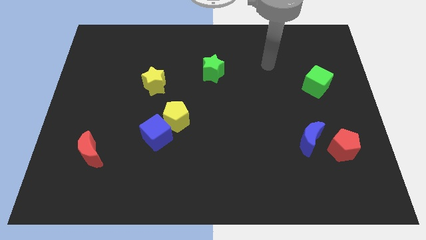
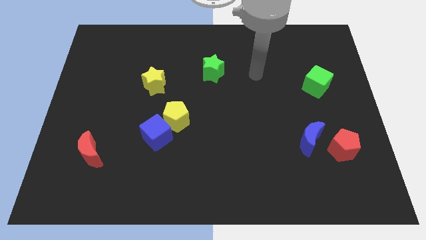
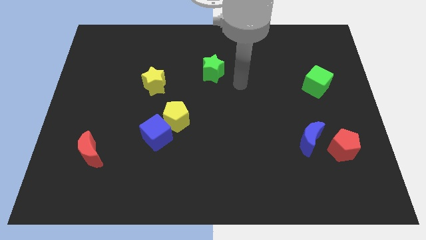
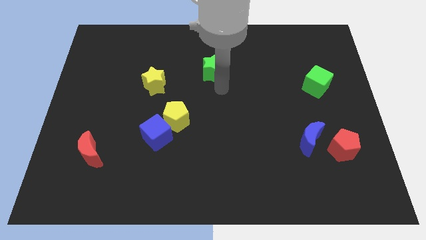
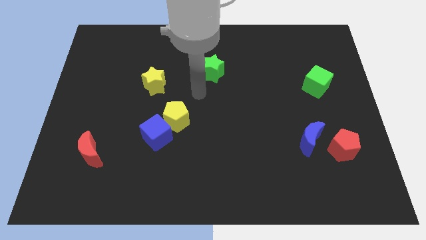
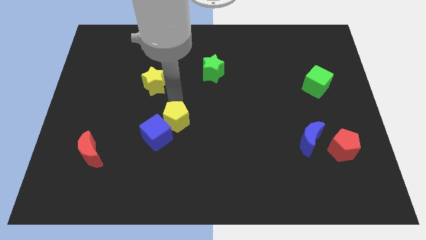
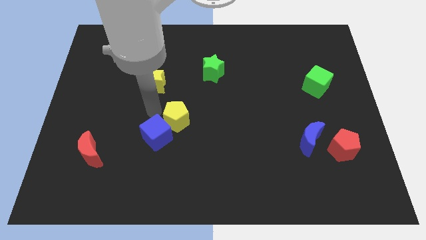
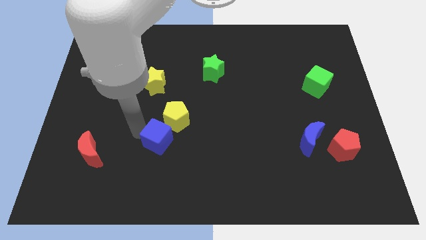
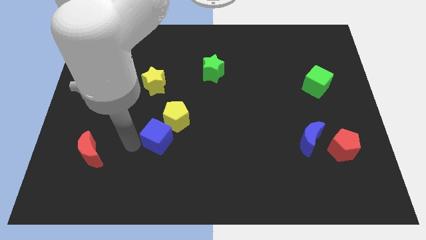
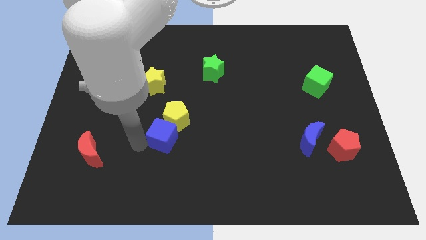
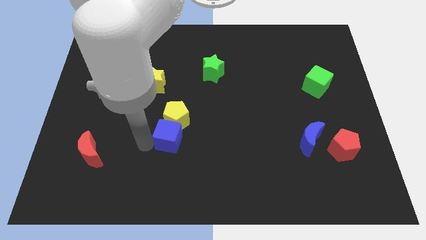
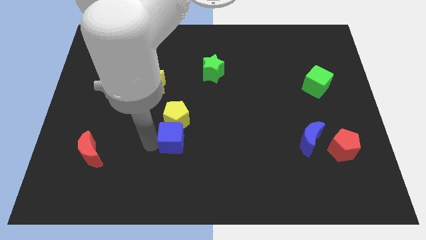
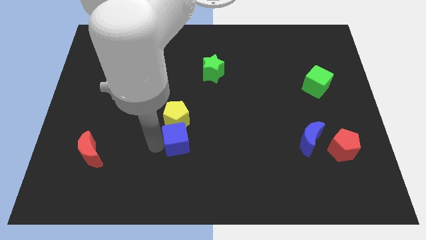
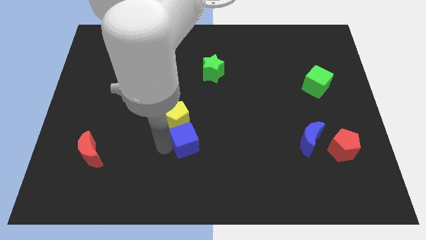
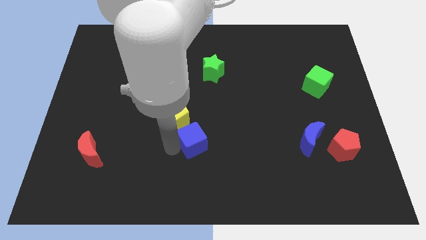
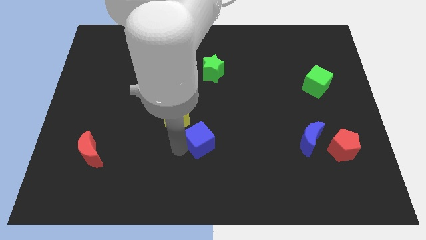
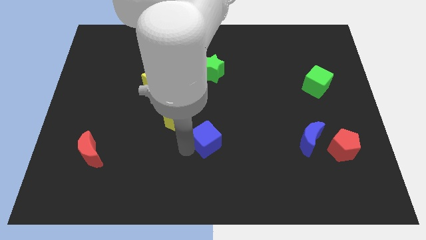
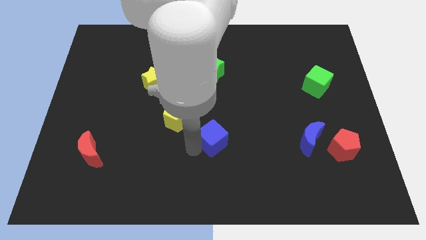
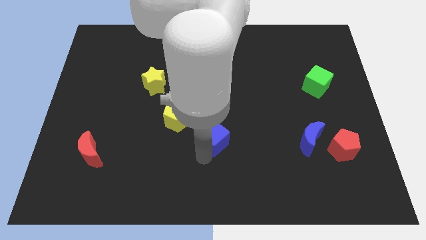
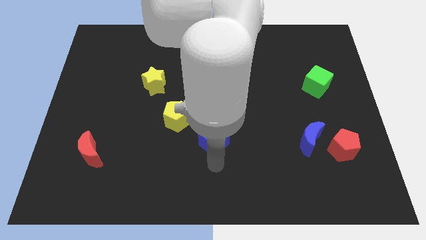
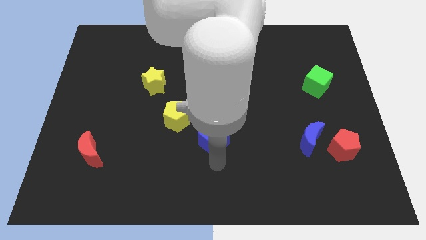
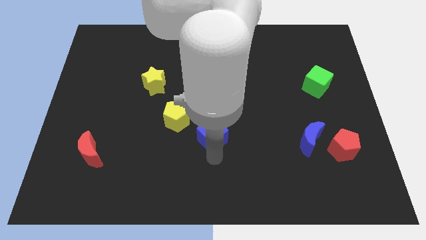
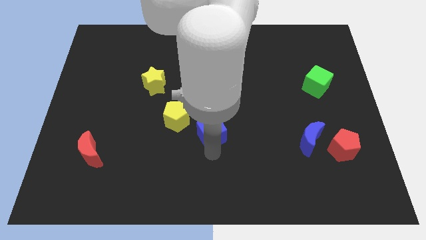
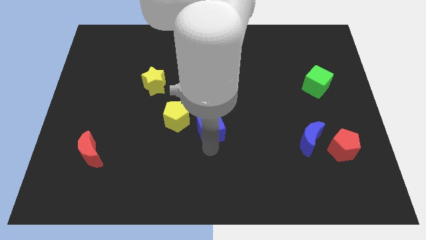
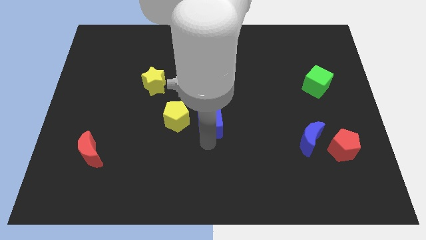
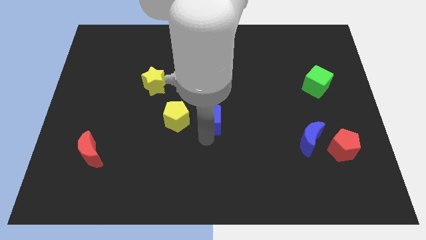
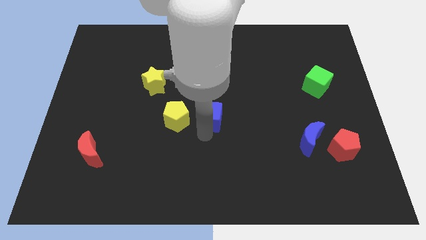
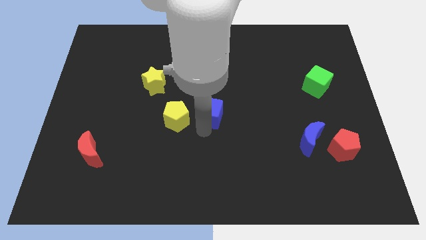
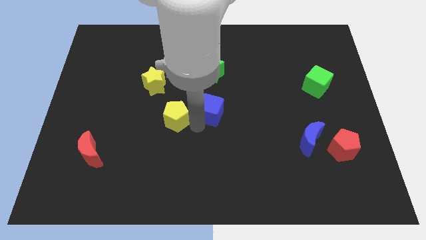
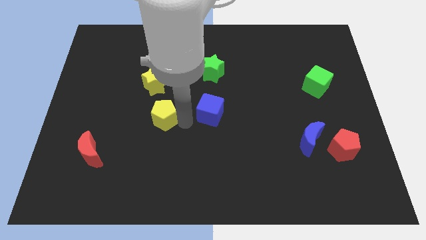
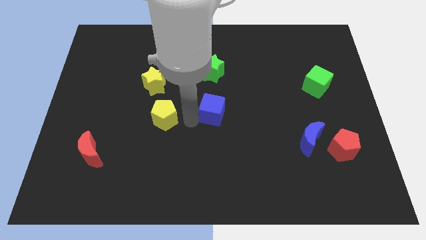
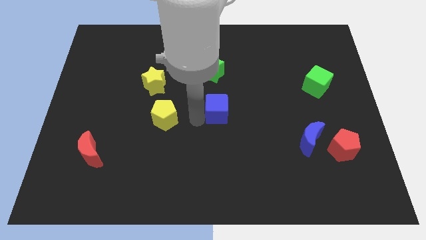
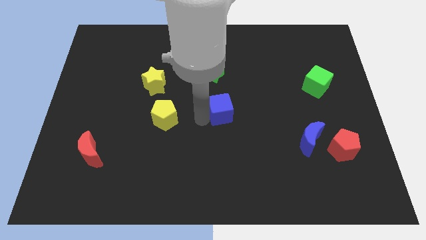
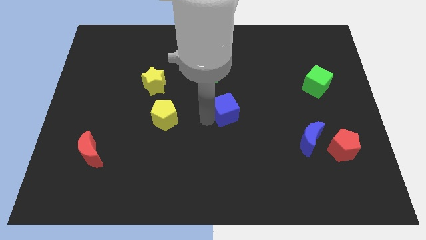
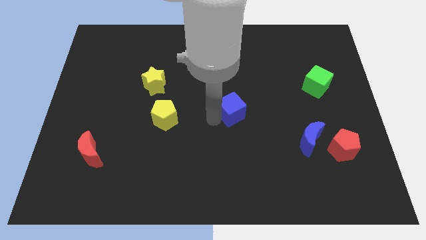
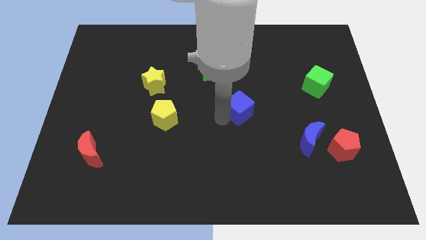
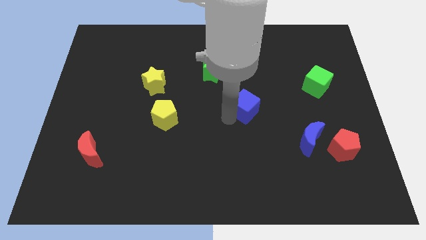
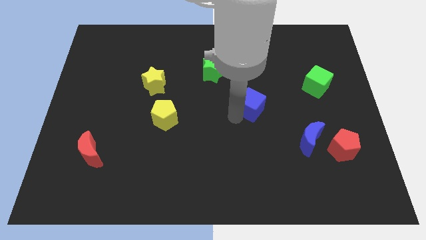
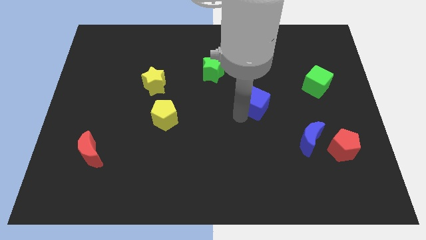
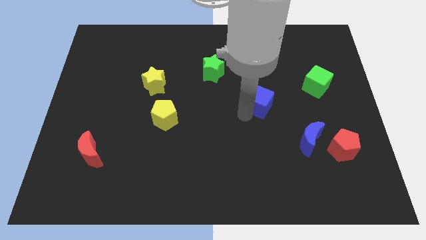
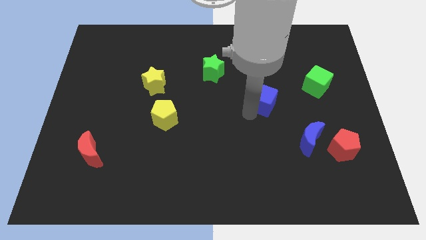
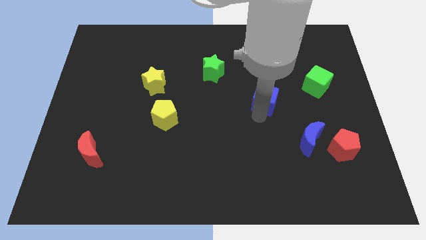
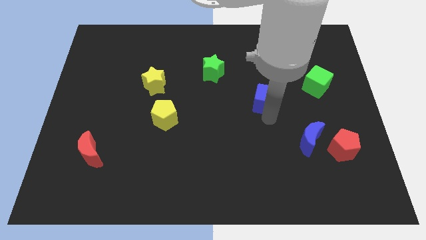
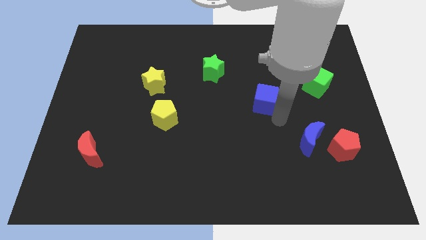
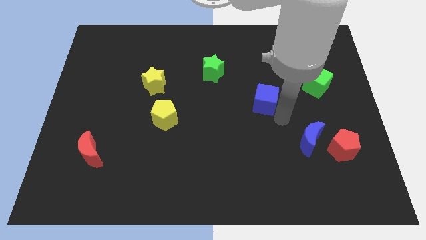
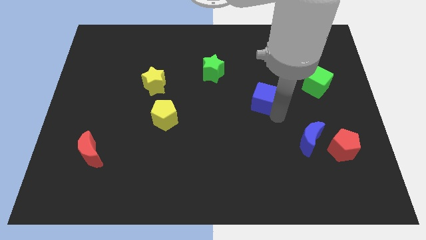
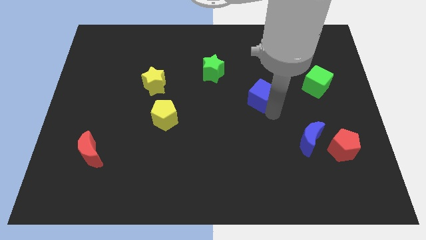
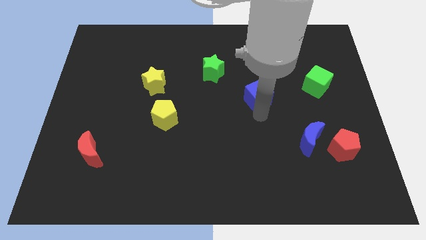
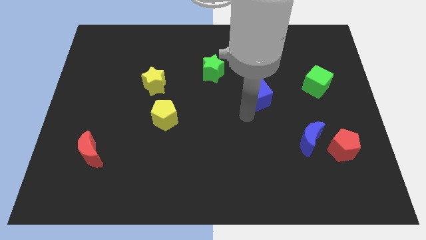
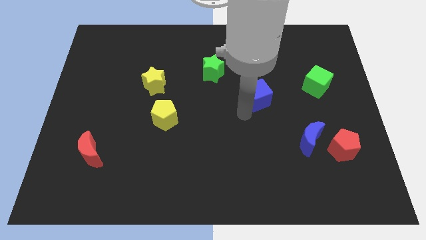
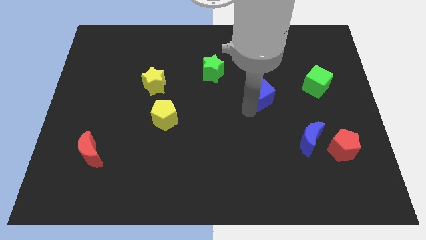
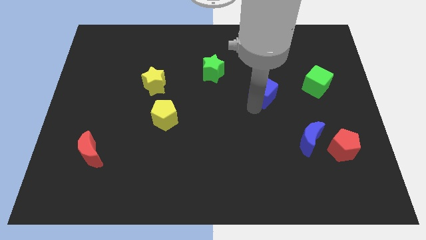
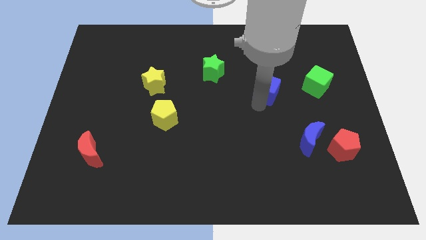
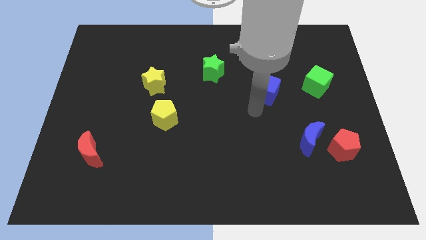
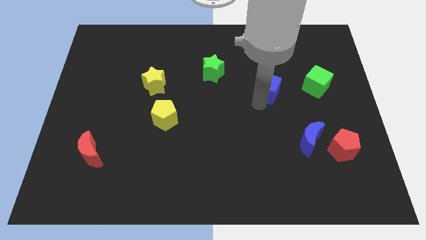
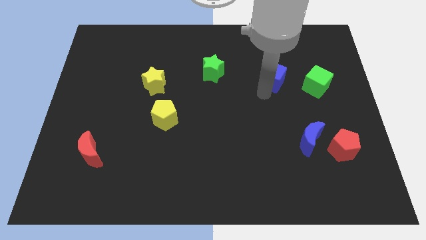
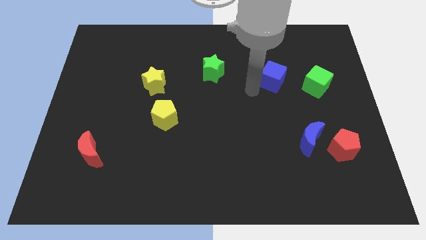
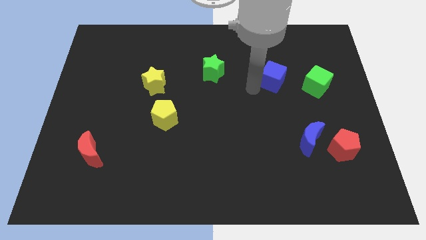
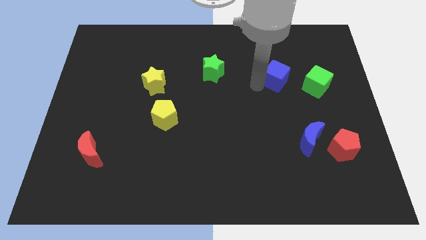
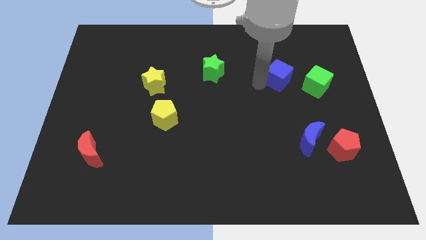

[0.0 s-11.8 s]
put the blue cube diagonally up and to the left of the green cube

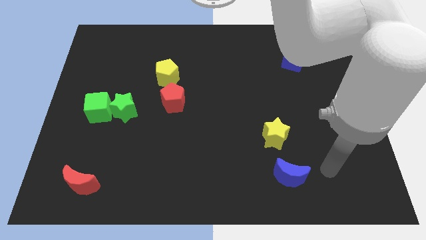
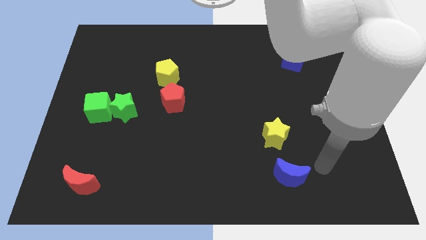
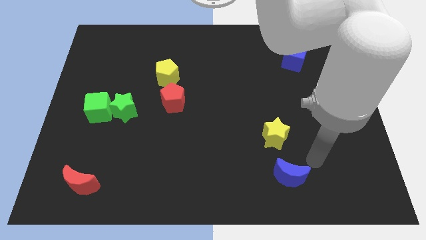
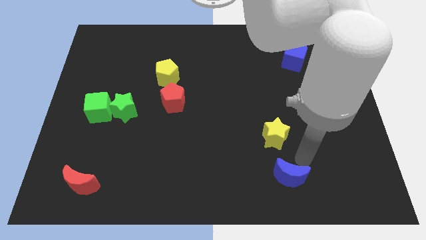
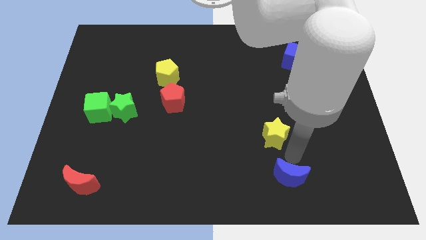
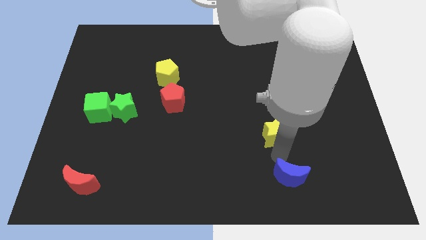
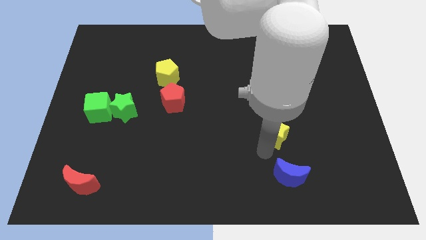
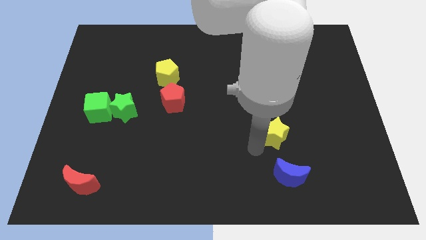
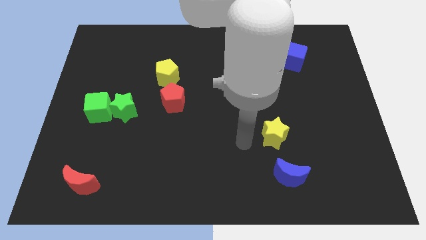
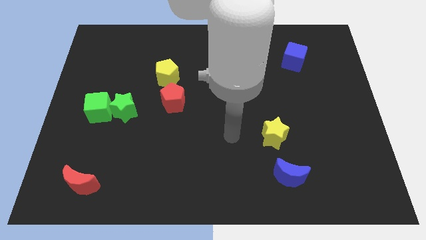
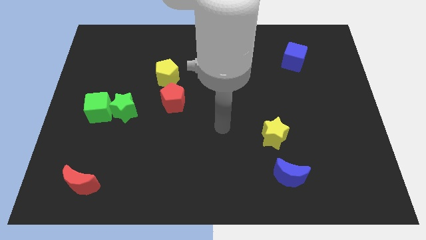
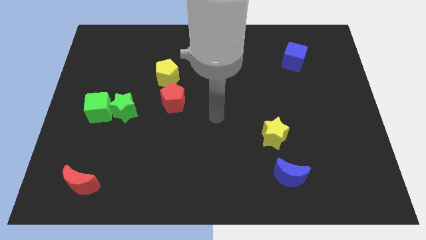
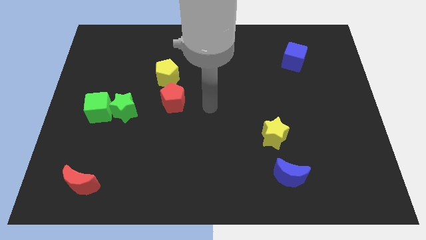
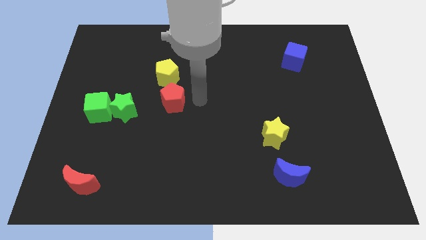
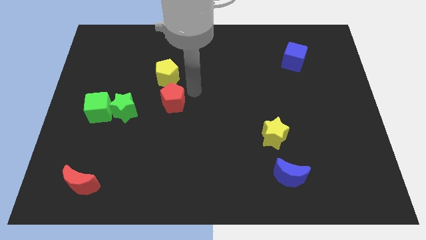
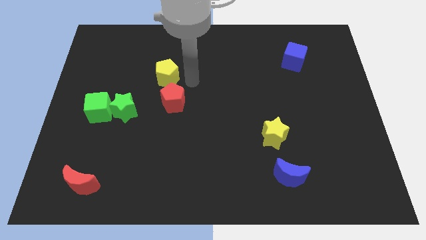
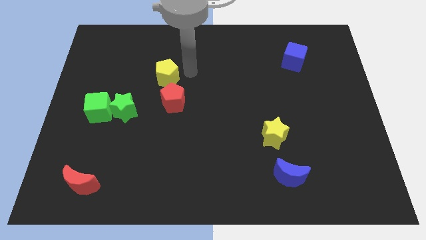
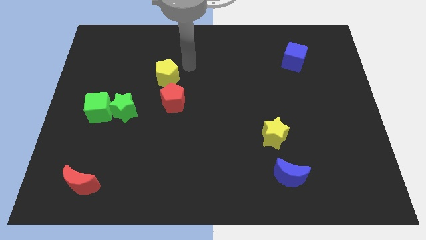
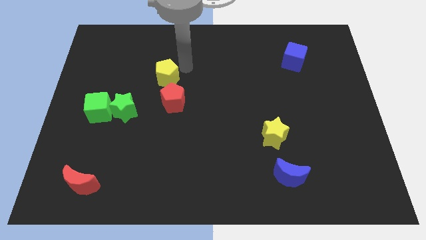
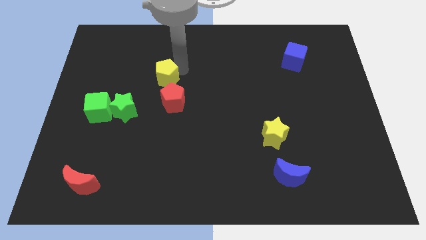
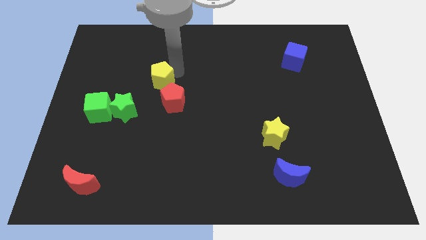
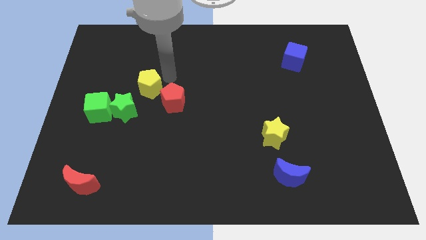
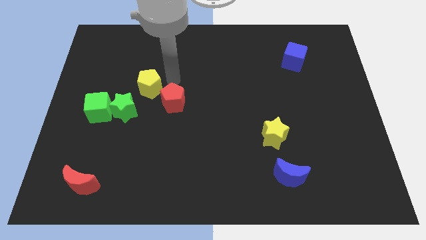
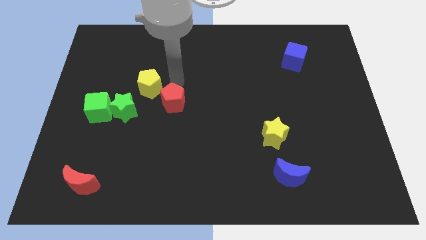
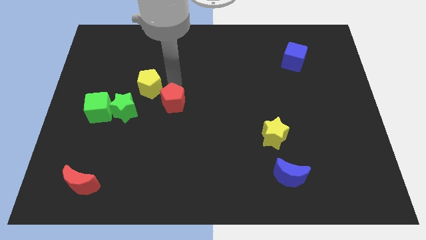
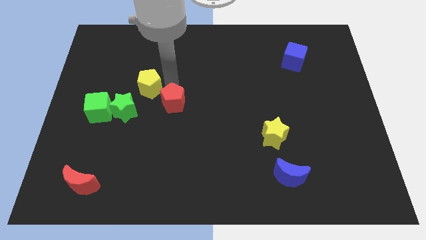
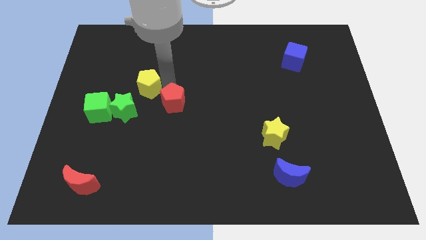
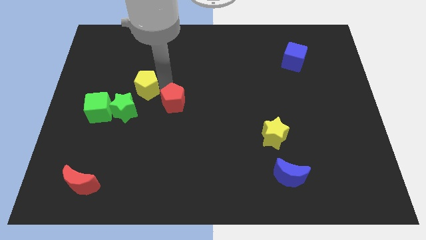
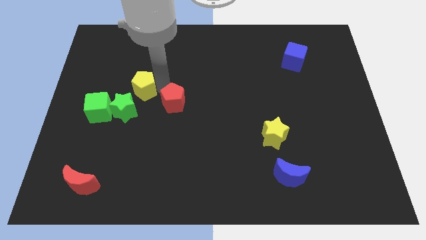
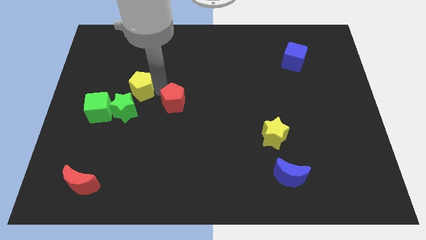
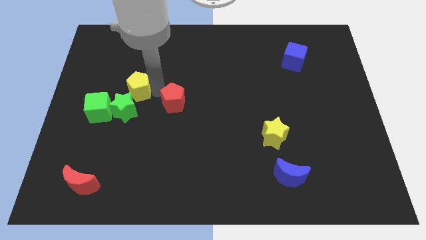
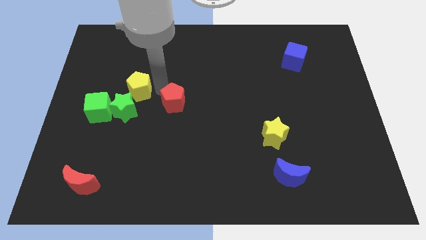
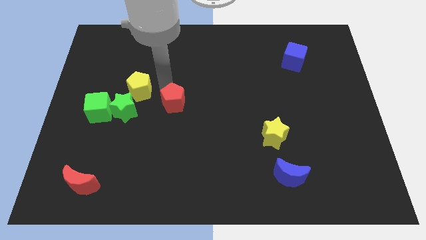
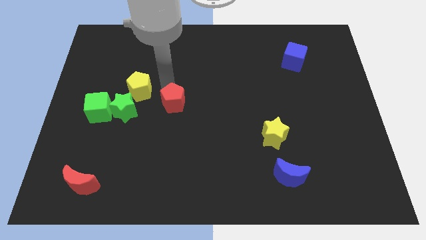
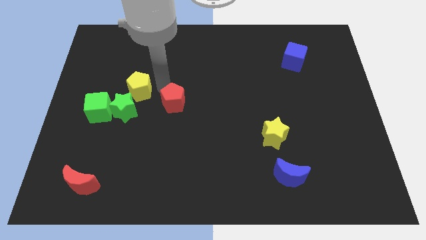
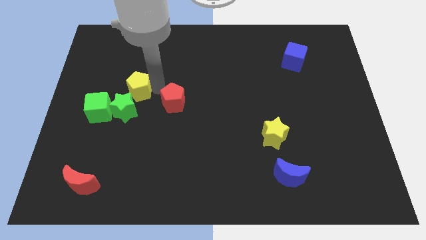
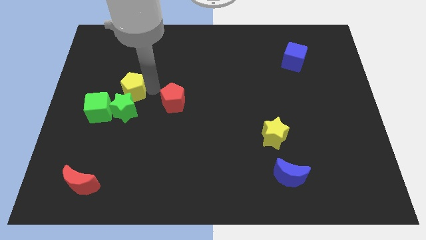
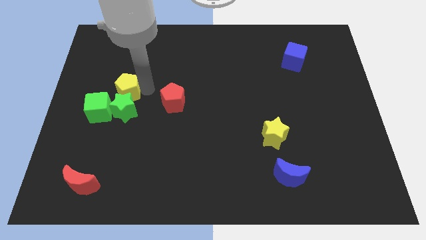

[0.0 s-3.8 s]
move the yellow pentagon to the top left side of the green star
